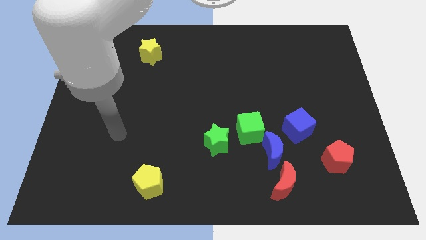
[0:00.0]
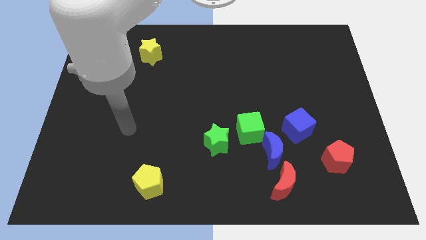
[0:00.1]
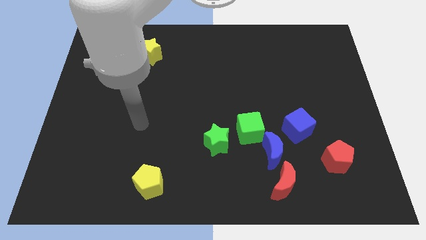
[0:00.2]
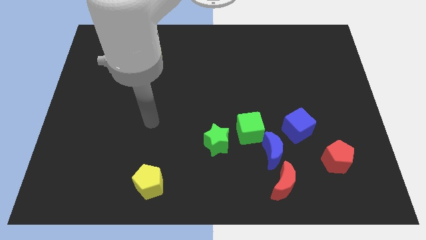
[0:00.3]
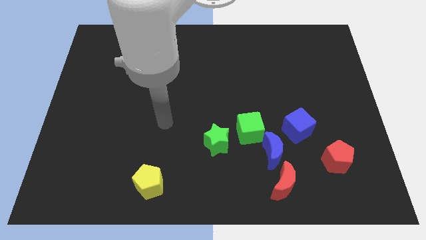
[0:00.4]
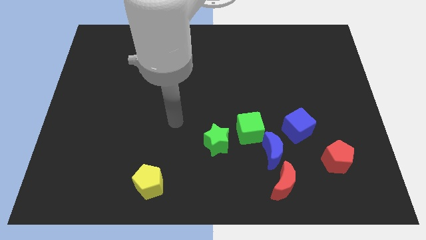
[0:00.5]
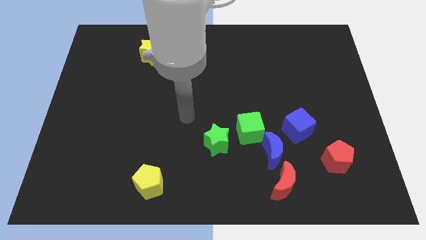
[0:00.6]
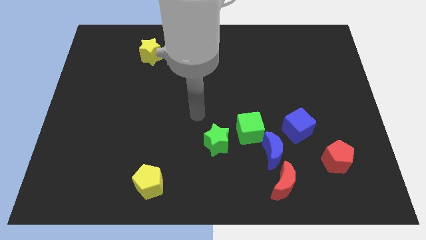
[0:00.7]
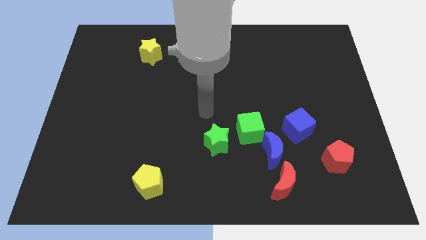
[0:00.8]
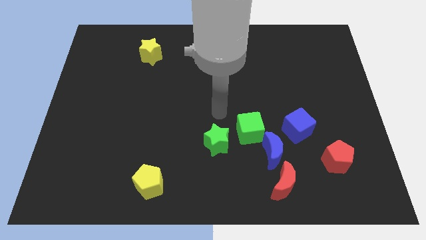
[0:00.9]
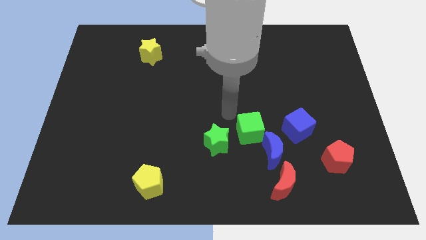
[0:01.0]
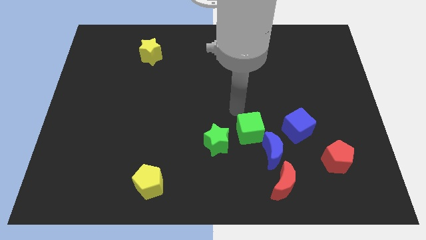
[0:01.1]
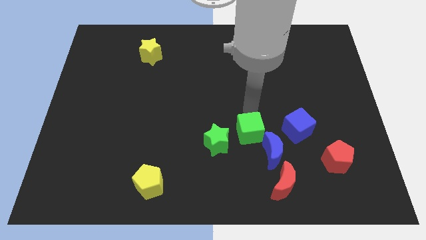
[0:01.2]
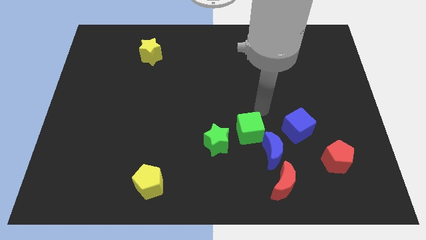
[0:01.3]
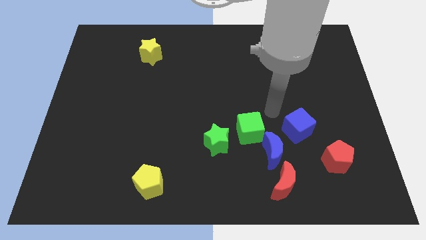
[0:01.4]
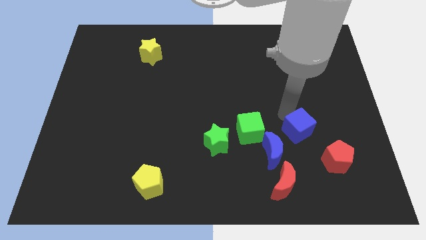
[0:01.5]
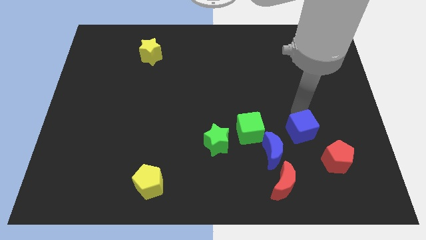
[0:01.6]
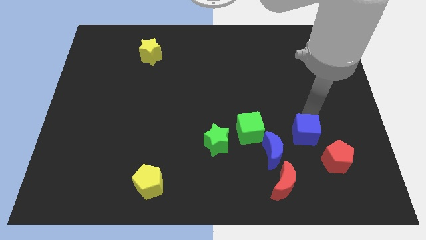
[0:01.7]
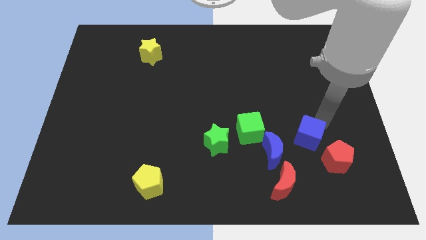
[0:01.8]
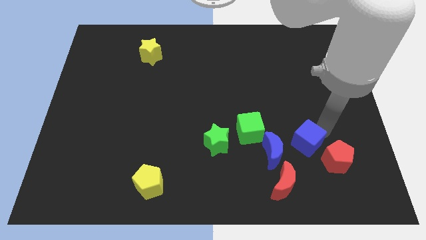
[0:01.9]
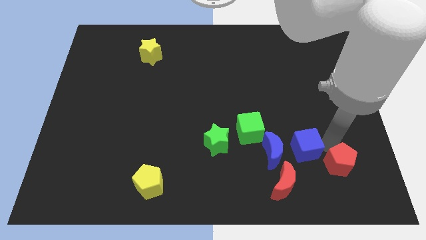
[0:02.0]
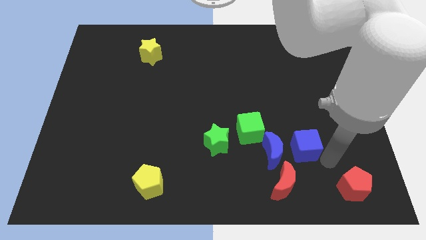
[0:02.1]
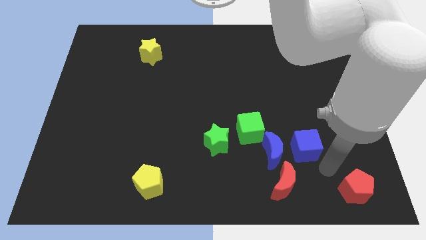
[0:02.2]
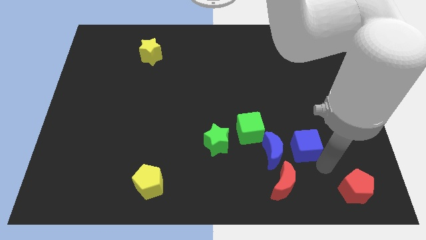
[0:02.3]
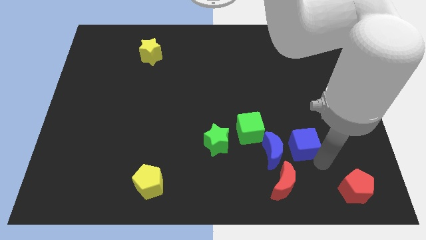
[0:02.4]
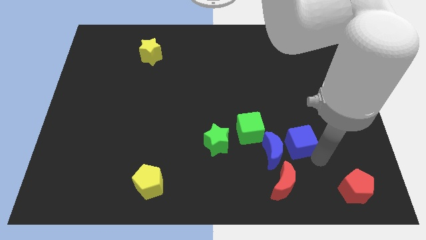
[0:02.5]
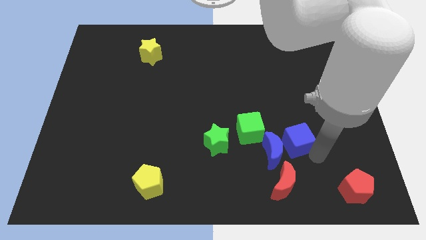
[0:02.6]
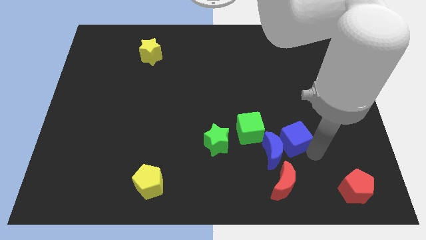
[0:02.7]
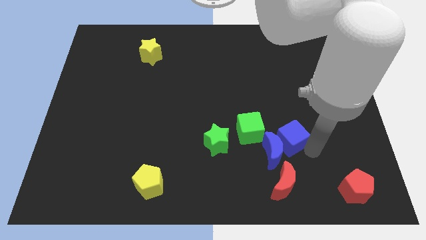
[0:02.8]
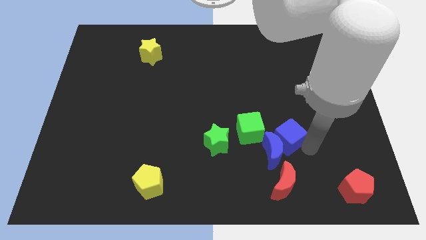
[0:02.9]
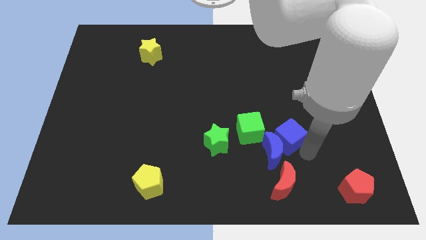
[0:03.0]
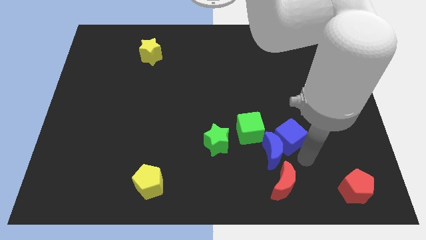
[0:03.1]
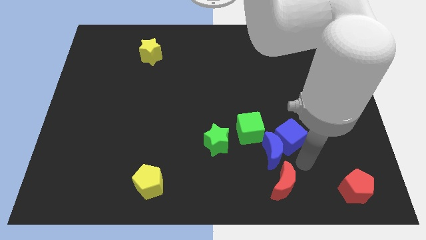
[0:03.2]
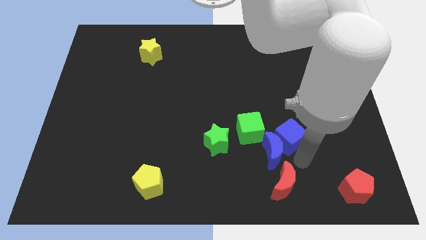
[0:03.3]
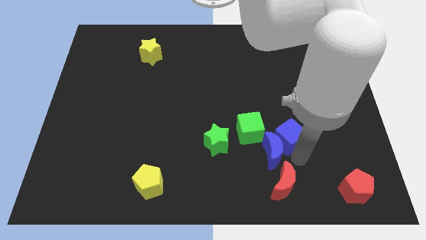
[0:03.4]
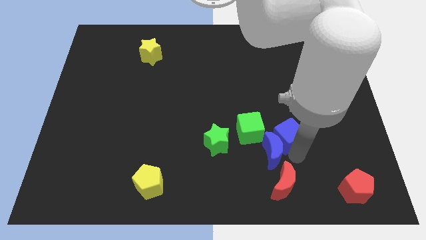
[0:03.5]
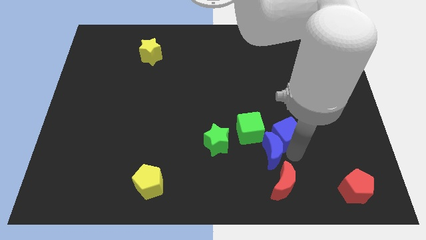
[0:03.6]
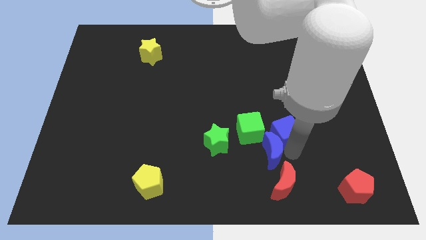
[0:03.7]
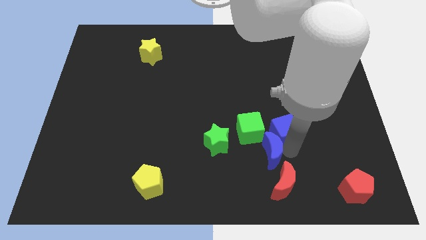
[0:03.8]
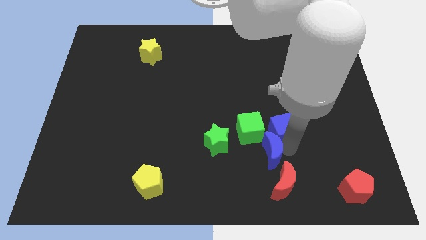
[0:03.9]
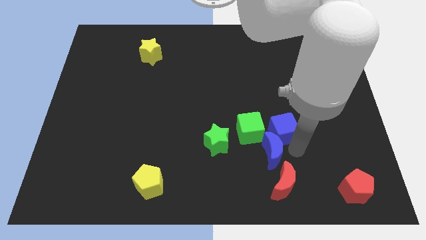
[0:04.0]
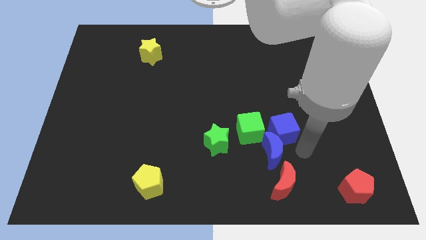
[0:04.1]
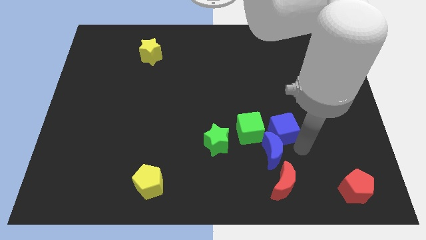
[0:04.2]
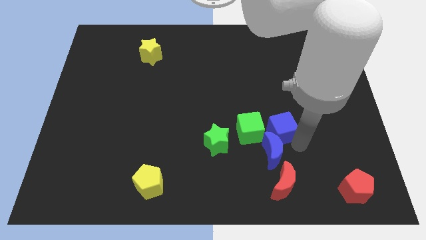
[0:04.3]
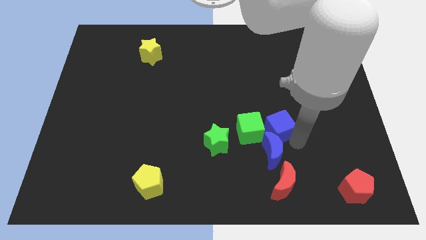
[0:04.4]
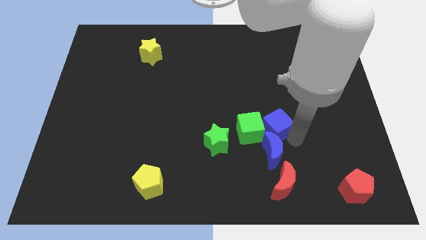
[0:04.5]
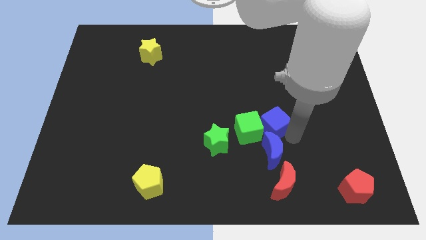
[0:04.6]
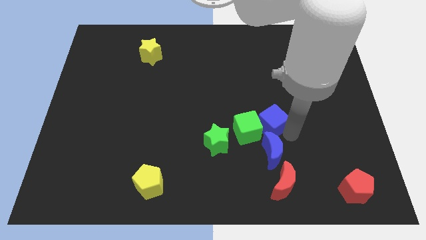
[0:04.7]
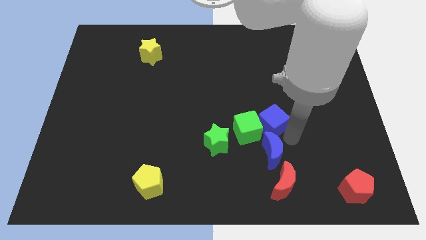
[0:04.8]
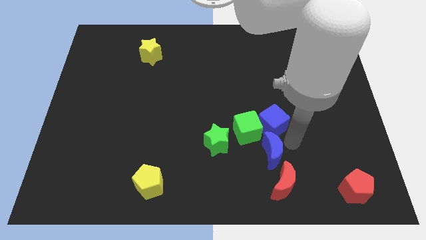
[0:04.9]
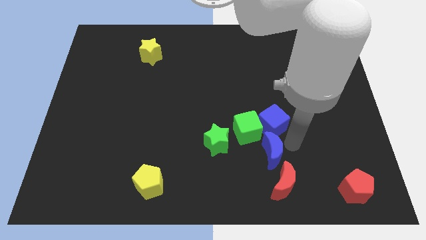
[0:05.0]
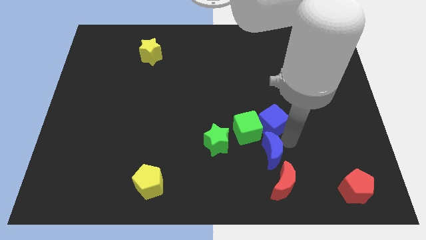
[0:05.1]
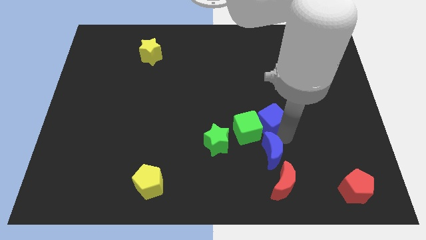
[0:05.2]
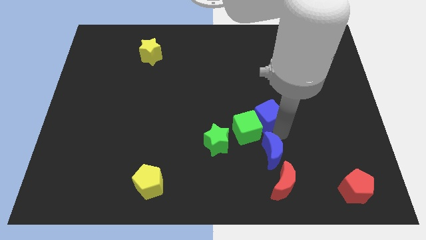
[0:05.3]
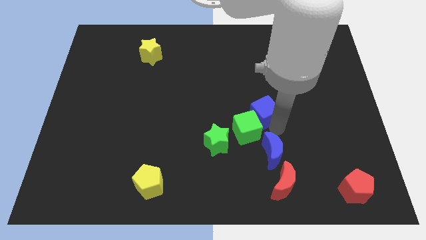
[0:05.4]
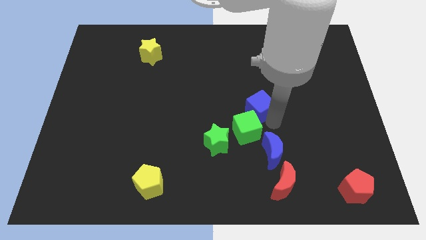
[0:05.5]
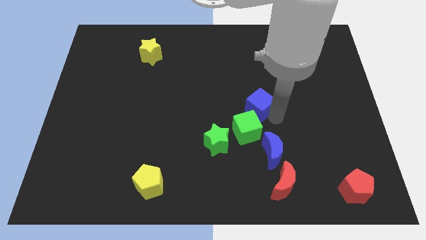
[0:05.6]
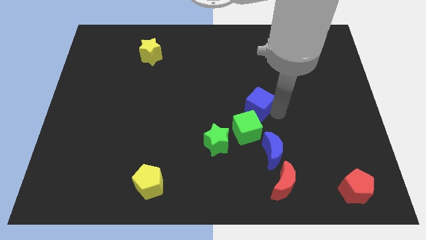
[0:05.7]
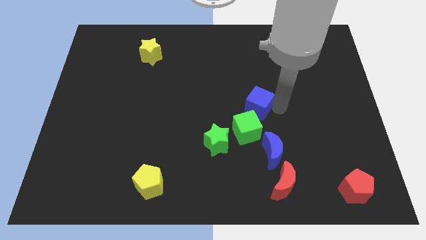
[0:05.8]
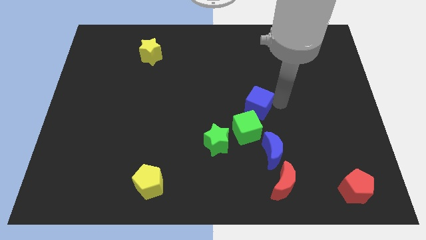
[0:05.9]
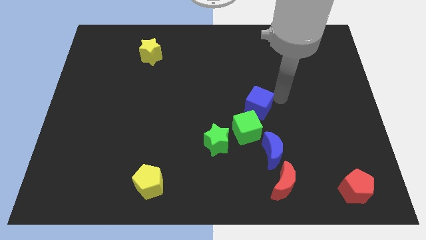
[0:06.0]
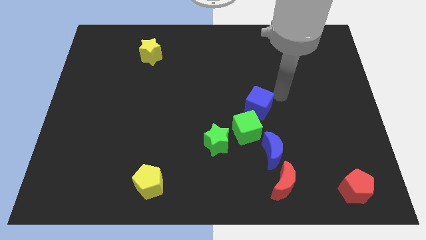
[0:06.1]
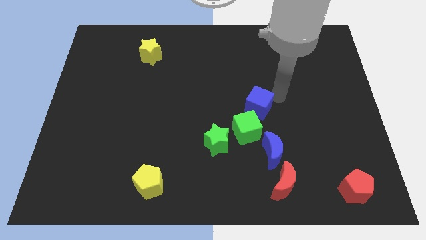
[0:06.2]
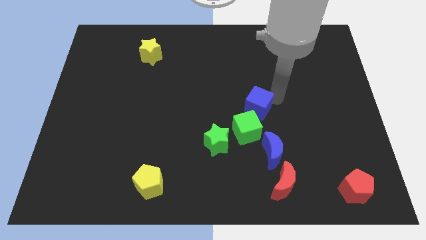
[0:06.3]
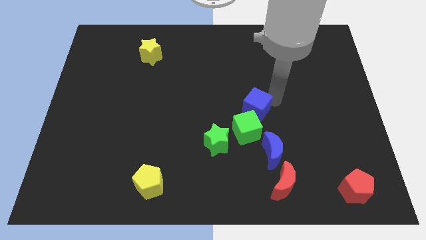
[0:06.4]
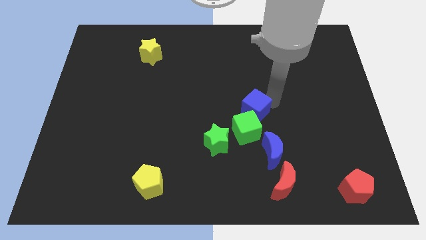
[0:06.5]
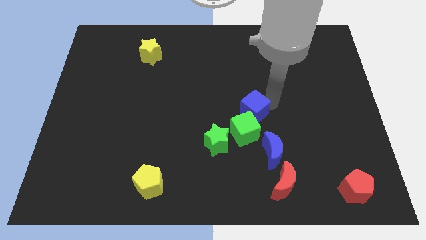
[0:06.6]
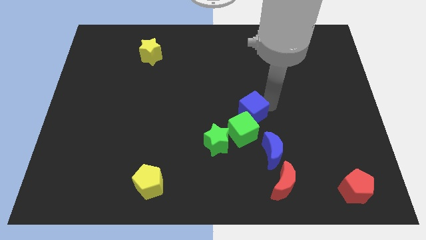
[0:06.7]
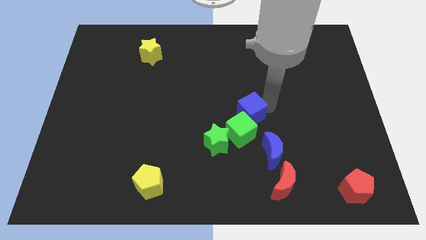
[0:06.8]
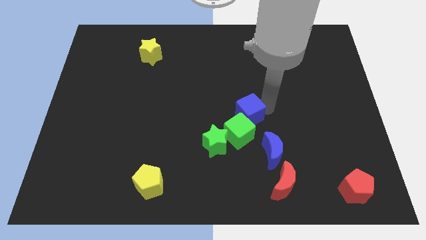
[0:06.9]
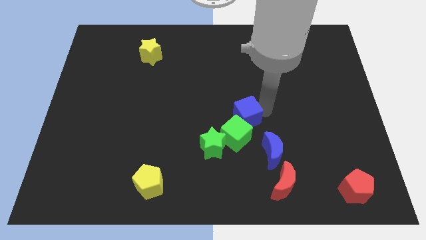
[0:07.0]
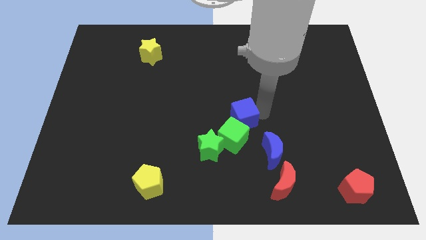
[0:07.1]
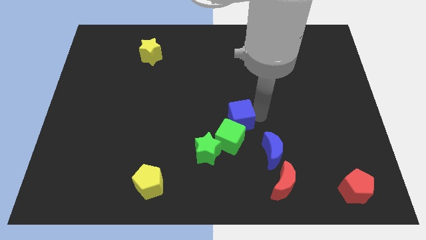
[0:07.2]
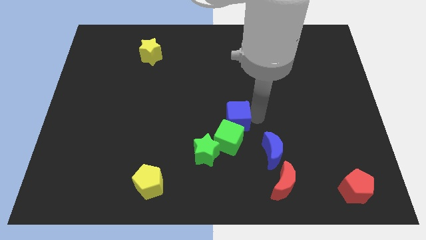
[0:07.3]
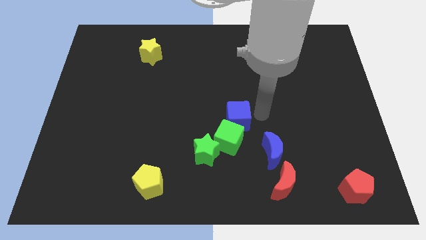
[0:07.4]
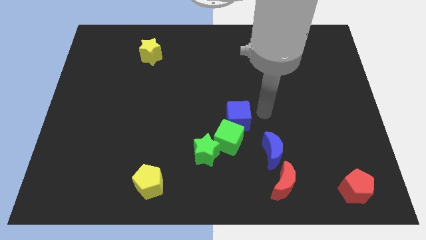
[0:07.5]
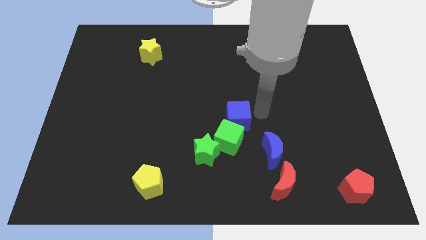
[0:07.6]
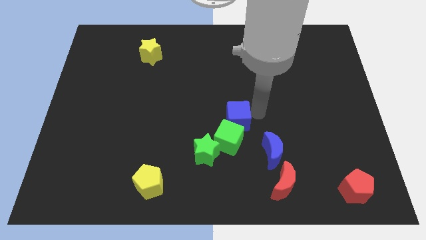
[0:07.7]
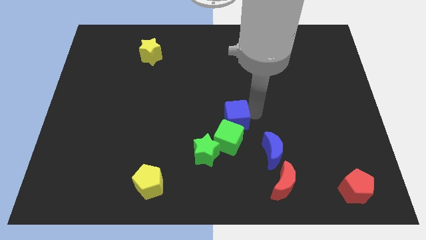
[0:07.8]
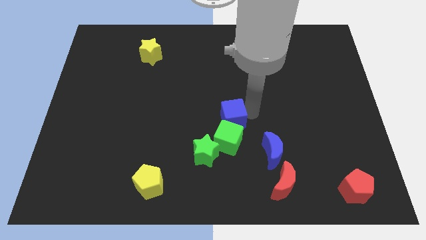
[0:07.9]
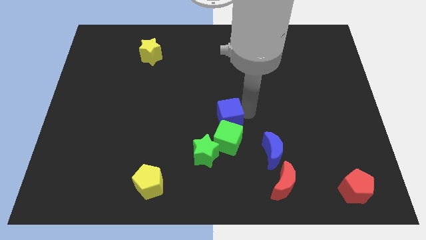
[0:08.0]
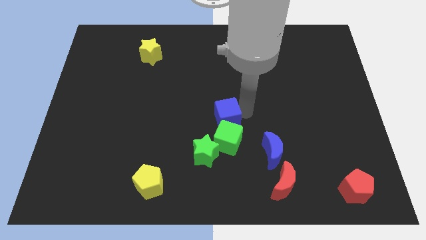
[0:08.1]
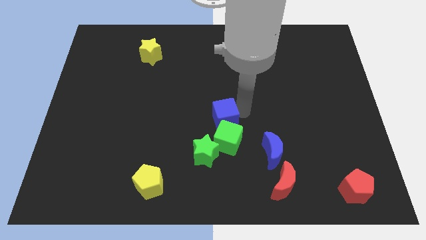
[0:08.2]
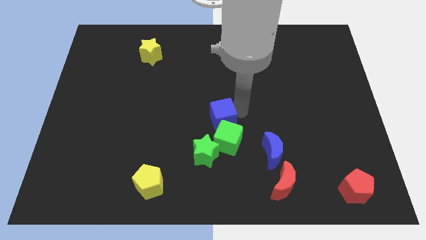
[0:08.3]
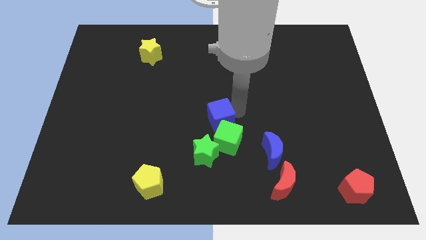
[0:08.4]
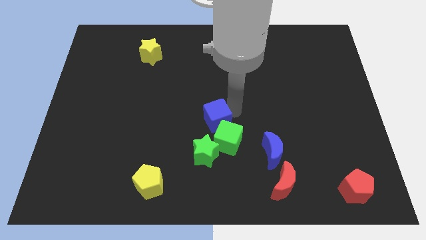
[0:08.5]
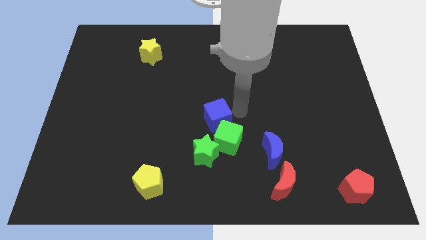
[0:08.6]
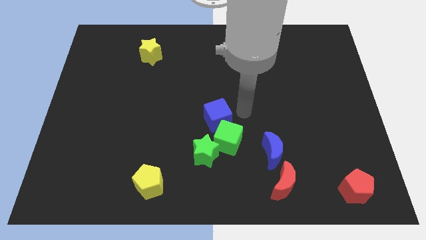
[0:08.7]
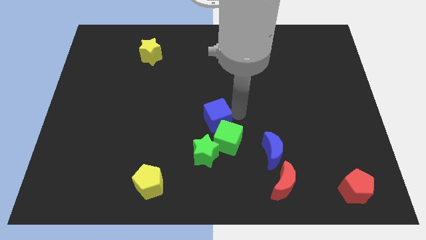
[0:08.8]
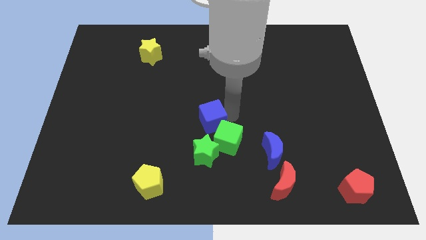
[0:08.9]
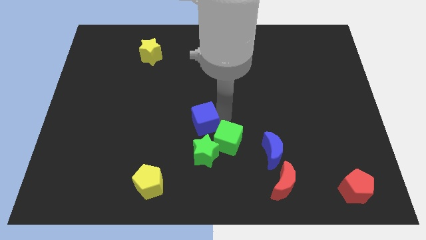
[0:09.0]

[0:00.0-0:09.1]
slide the blue cube left
